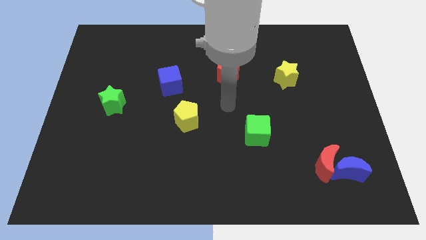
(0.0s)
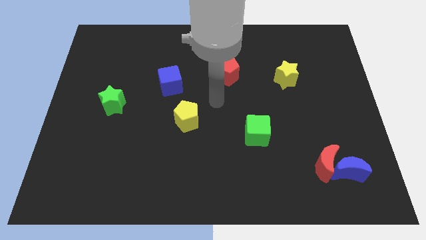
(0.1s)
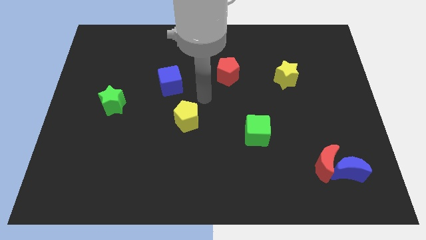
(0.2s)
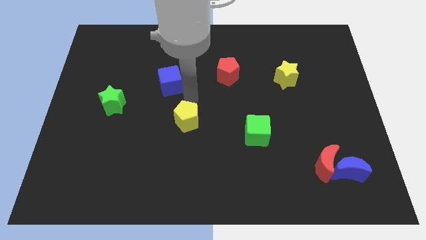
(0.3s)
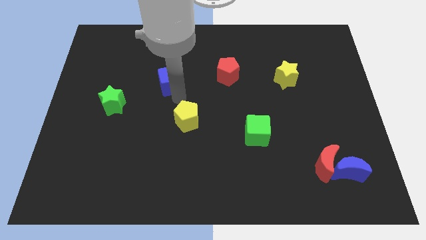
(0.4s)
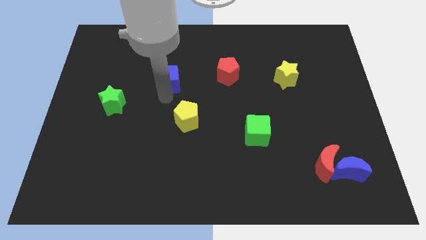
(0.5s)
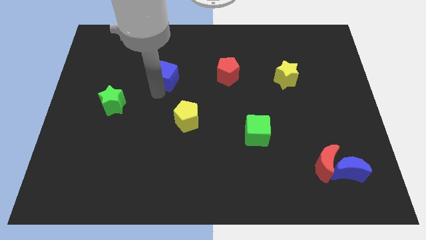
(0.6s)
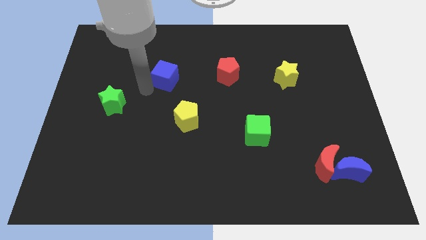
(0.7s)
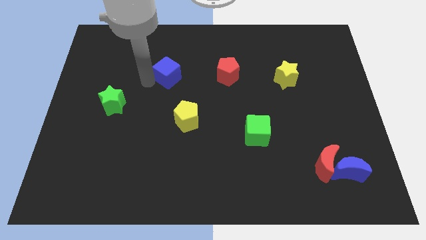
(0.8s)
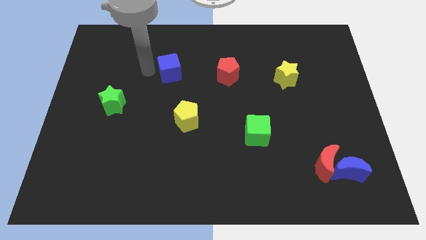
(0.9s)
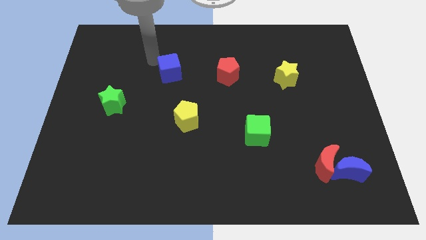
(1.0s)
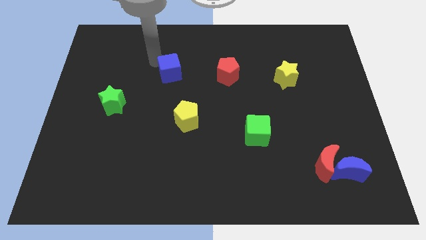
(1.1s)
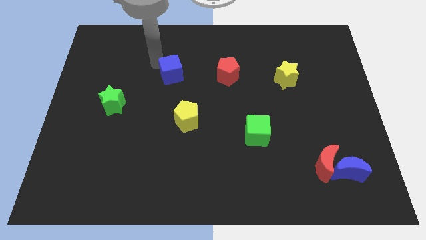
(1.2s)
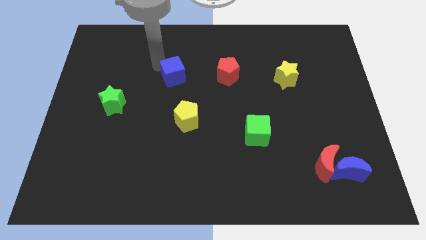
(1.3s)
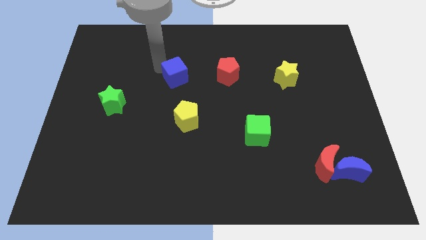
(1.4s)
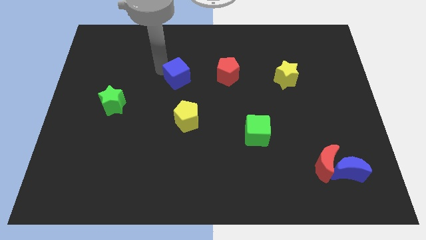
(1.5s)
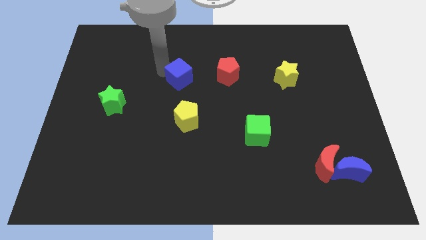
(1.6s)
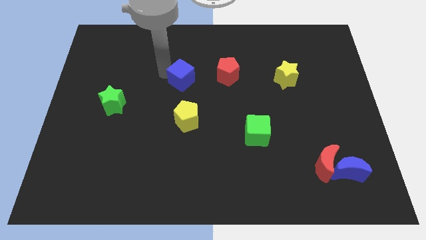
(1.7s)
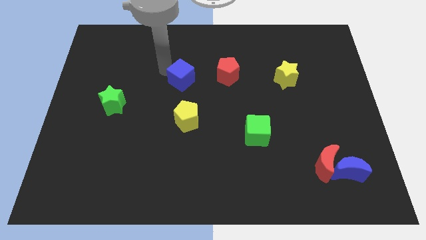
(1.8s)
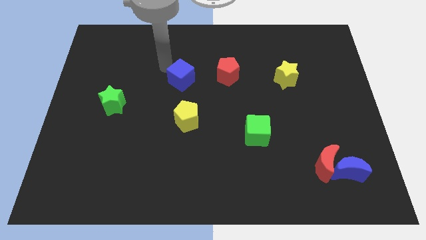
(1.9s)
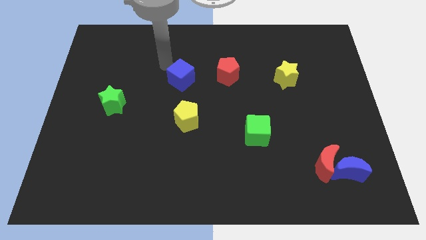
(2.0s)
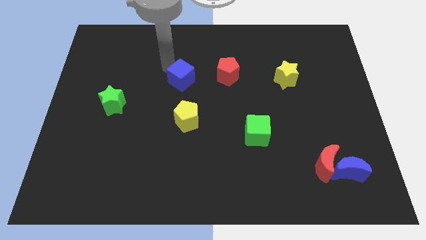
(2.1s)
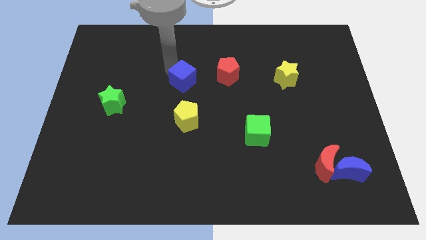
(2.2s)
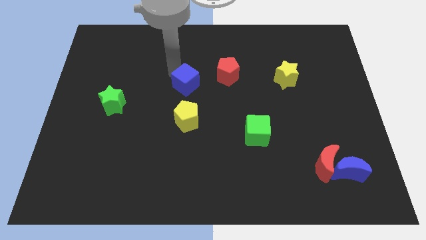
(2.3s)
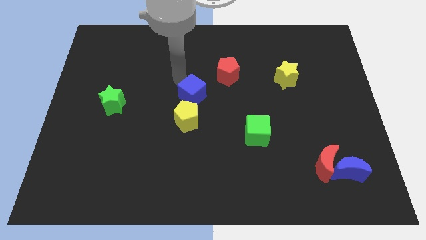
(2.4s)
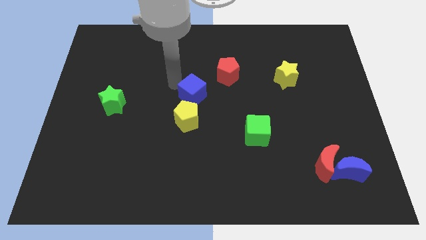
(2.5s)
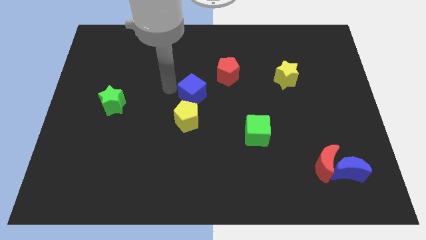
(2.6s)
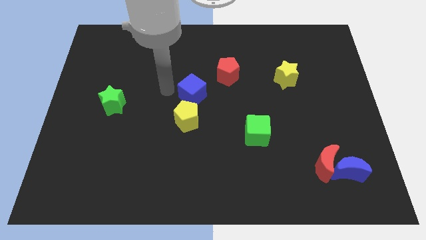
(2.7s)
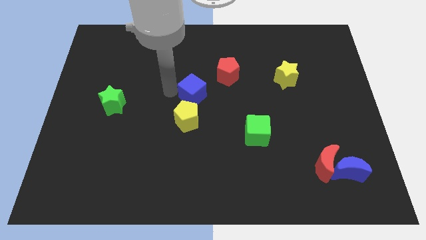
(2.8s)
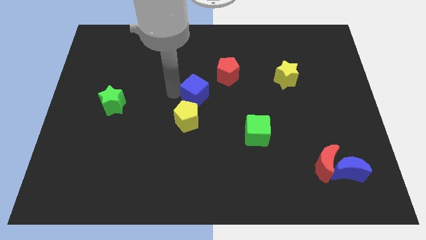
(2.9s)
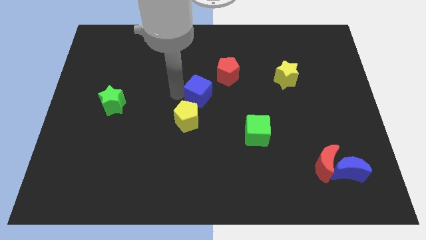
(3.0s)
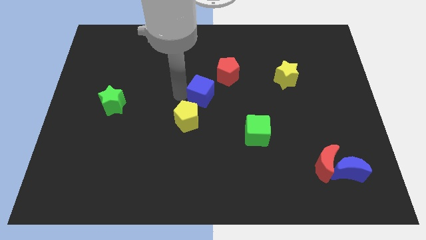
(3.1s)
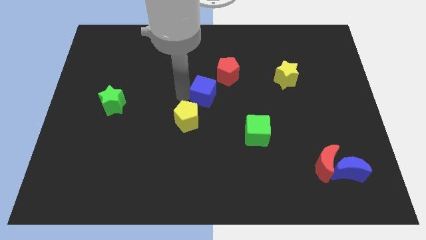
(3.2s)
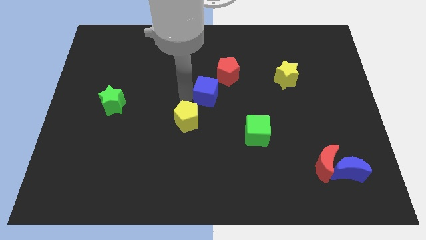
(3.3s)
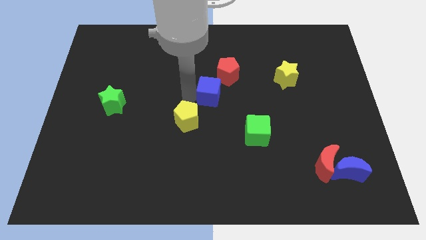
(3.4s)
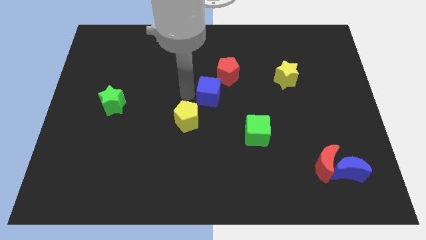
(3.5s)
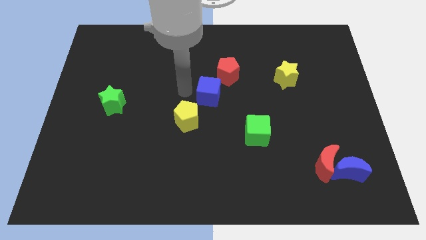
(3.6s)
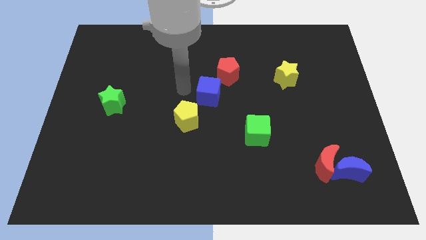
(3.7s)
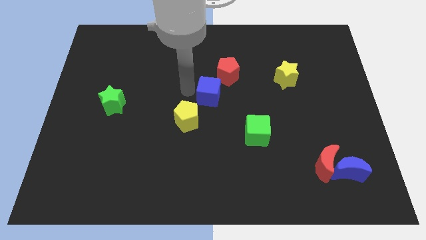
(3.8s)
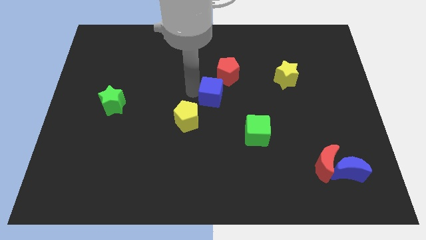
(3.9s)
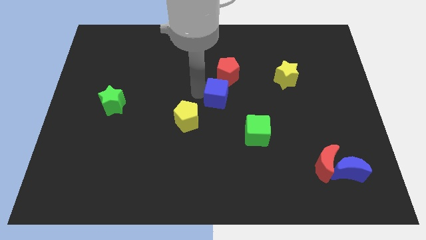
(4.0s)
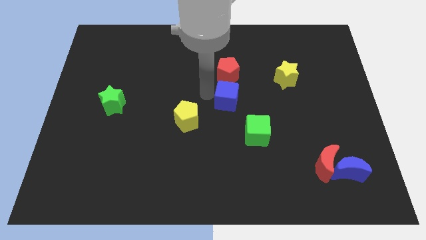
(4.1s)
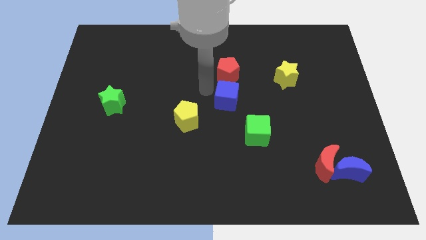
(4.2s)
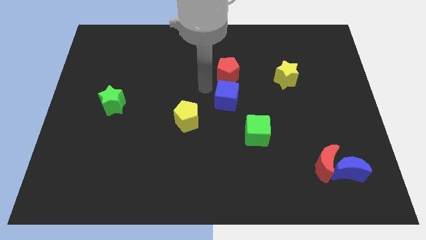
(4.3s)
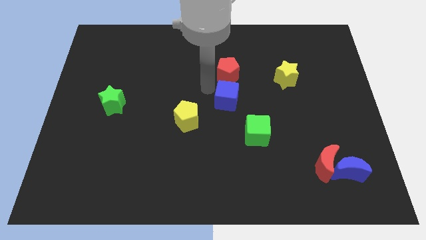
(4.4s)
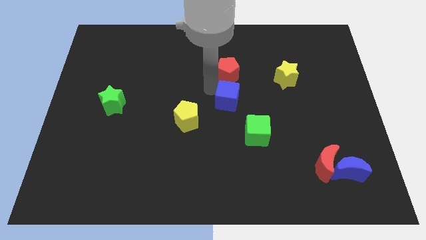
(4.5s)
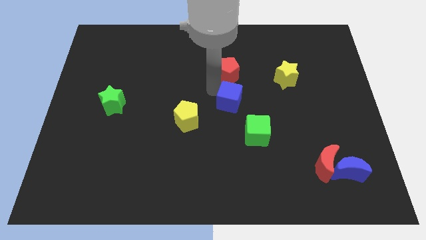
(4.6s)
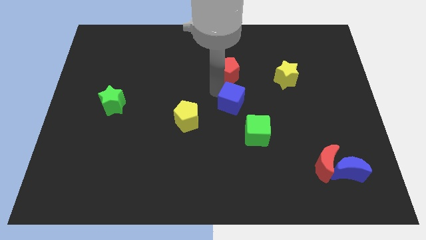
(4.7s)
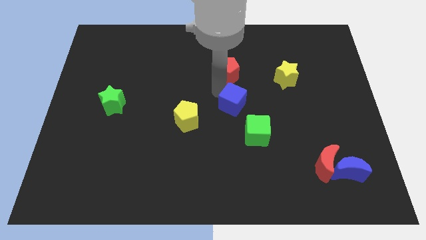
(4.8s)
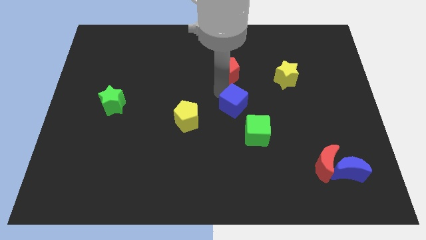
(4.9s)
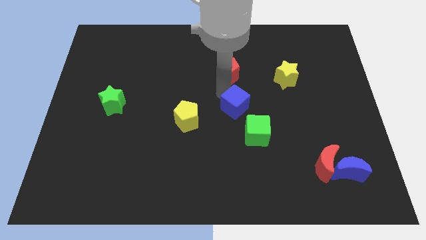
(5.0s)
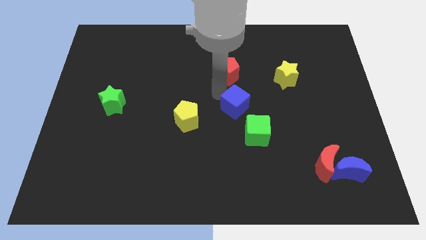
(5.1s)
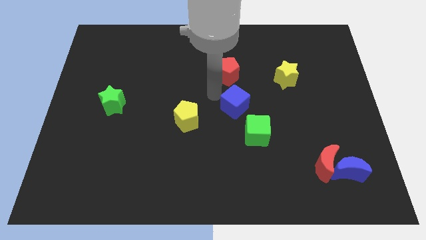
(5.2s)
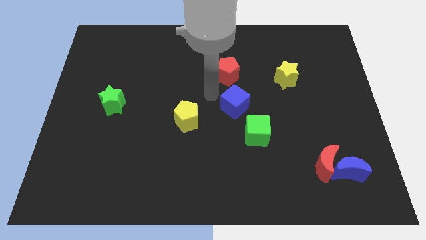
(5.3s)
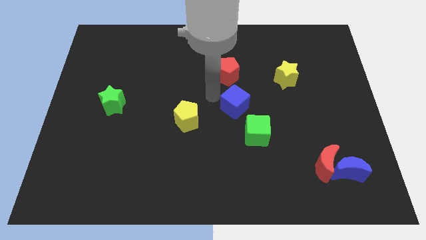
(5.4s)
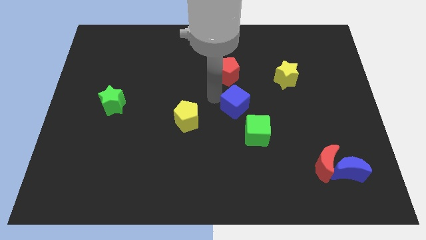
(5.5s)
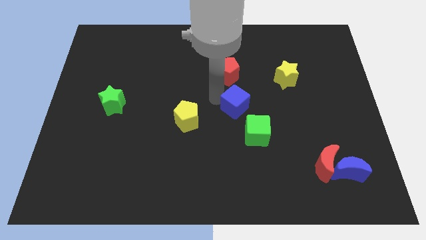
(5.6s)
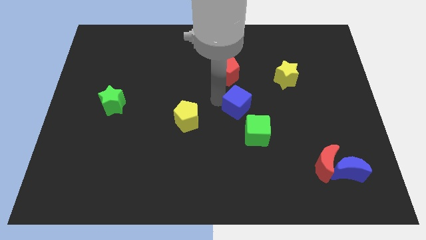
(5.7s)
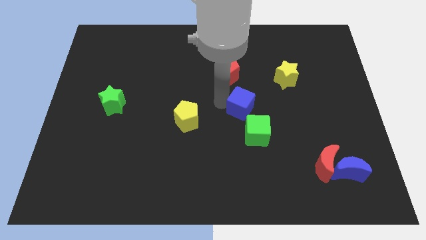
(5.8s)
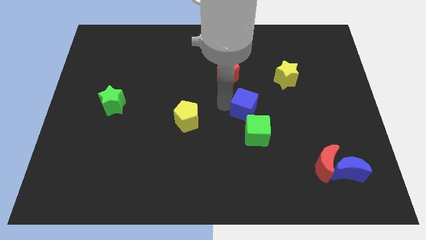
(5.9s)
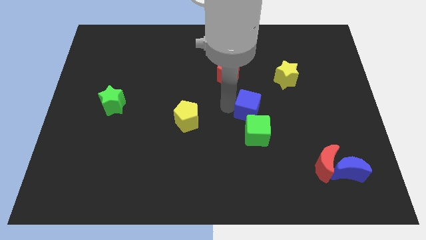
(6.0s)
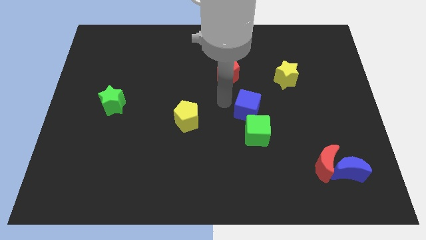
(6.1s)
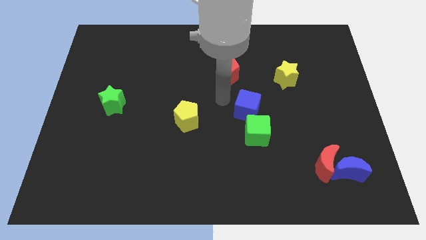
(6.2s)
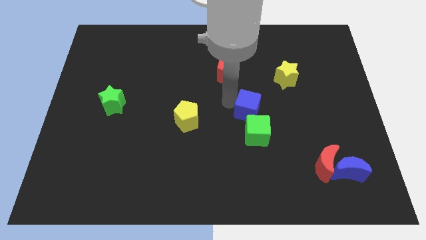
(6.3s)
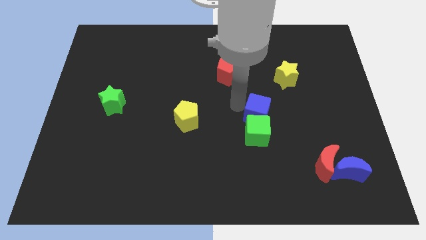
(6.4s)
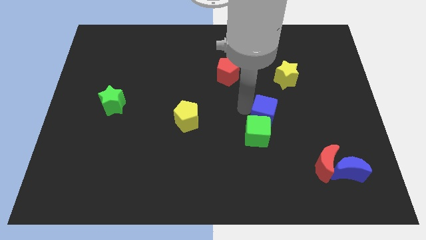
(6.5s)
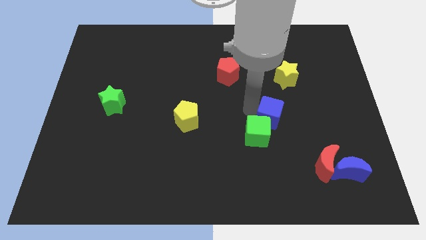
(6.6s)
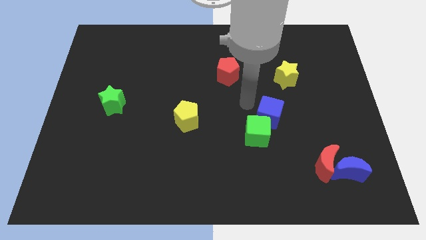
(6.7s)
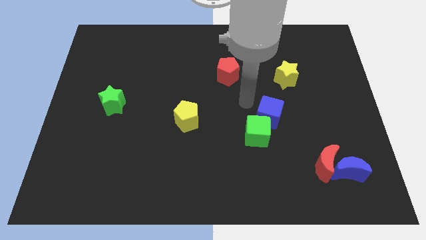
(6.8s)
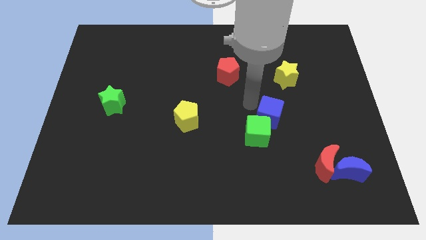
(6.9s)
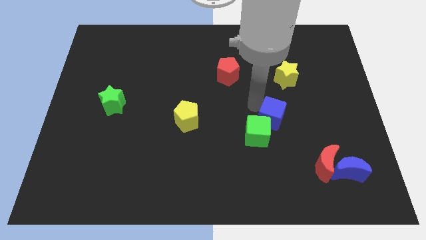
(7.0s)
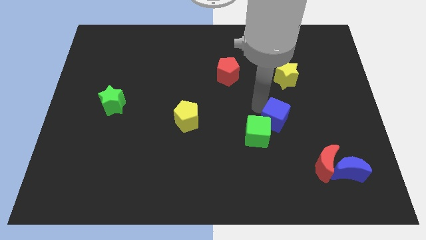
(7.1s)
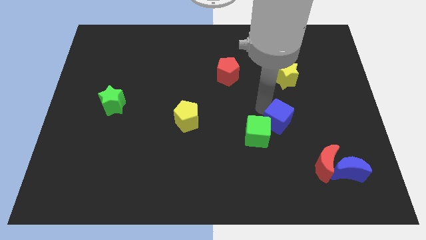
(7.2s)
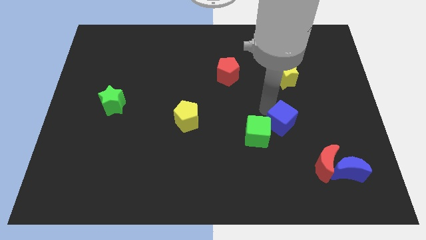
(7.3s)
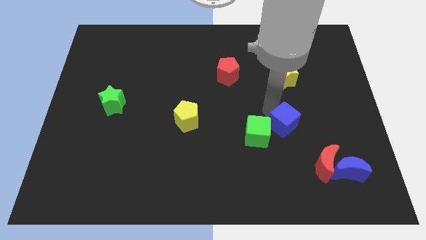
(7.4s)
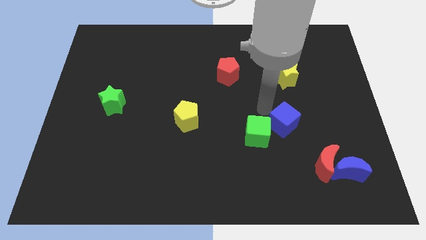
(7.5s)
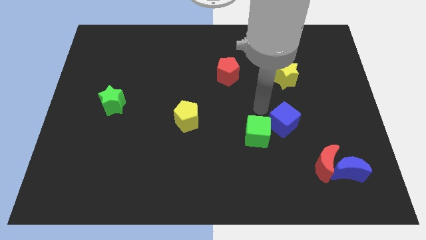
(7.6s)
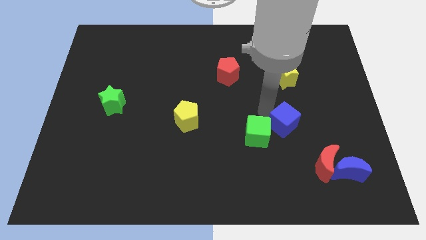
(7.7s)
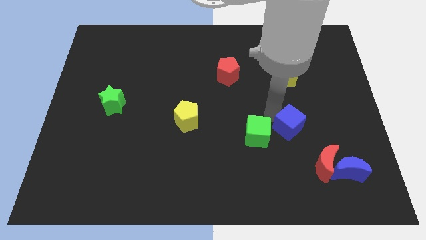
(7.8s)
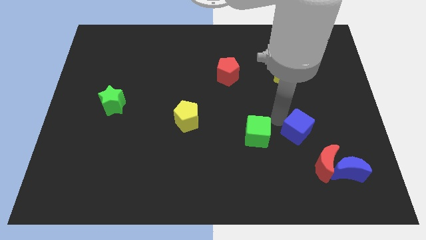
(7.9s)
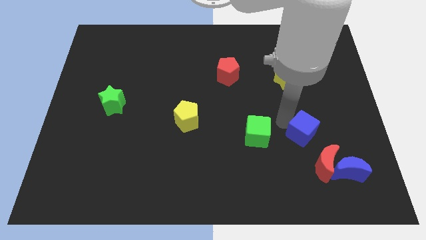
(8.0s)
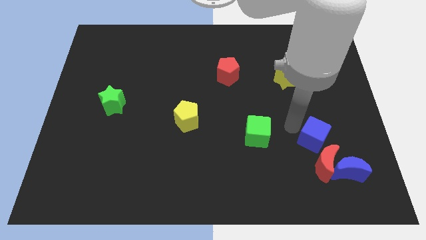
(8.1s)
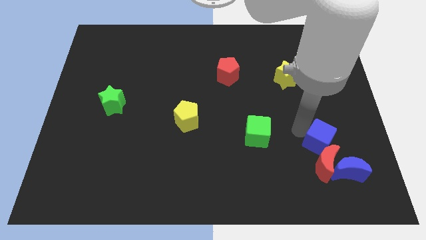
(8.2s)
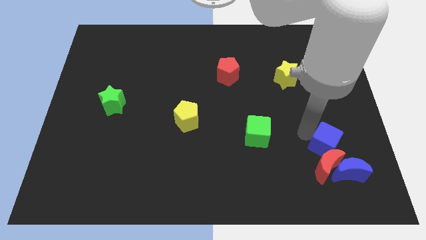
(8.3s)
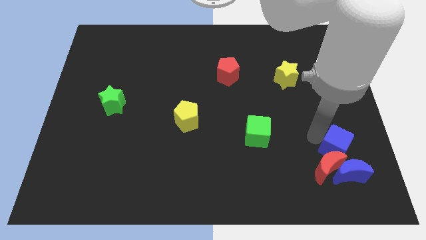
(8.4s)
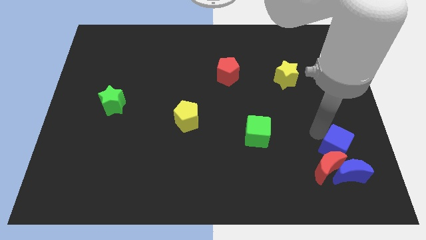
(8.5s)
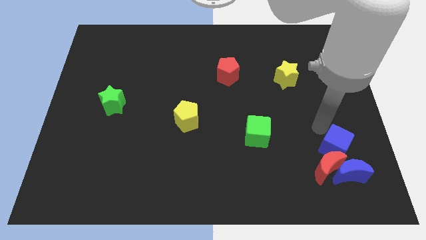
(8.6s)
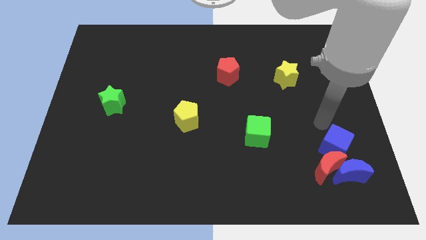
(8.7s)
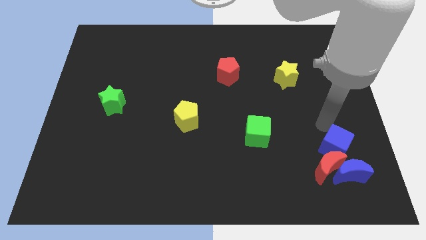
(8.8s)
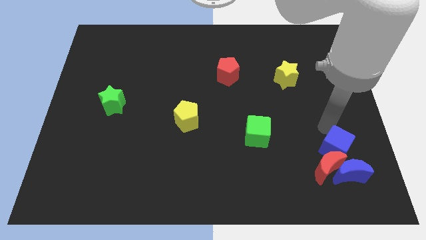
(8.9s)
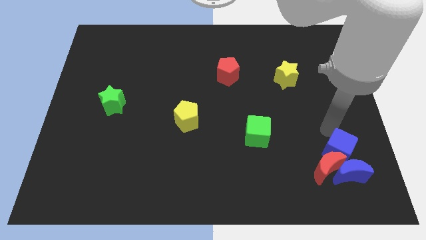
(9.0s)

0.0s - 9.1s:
push the blue cube towards the blue moon
